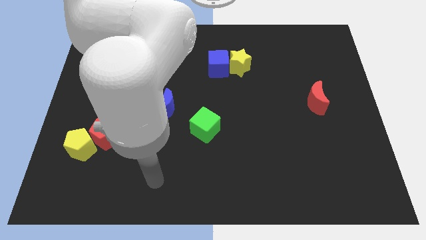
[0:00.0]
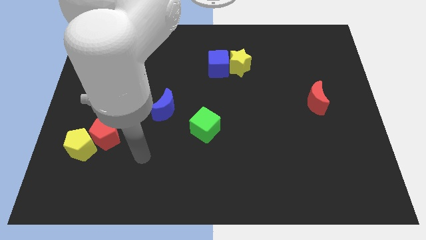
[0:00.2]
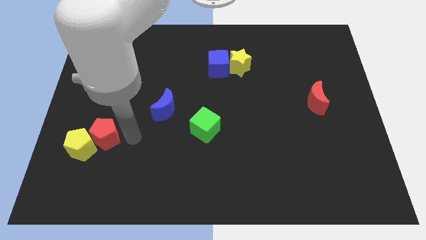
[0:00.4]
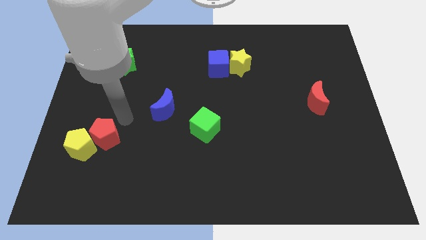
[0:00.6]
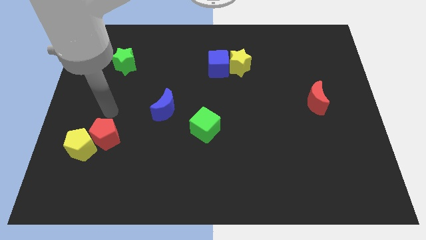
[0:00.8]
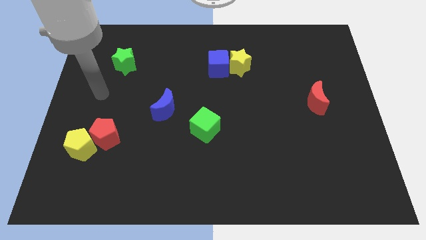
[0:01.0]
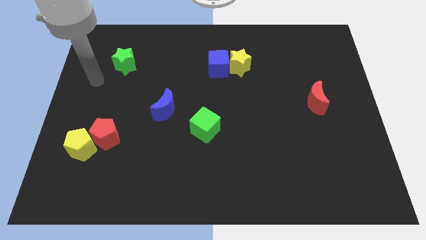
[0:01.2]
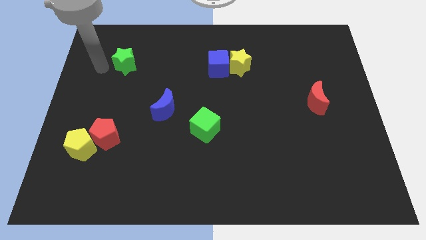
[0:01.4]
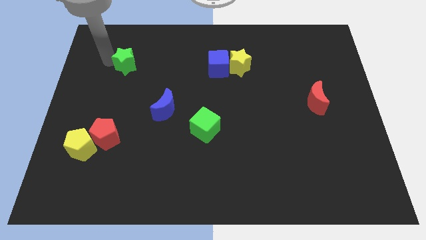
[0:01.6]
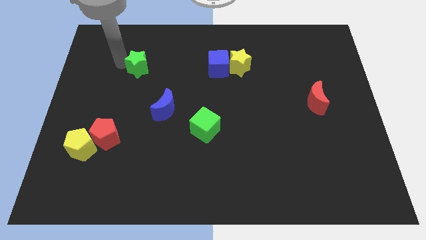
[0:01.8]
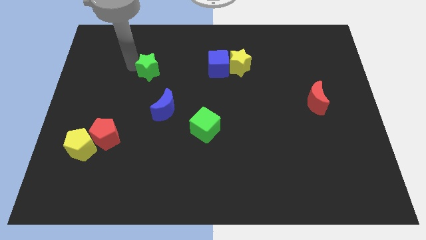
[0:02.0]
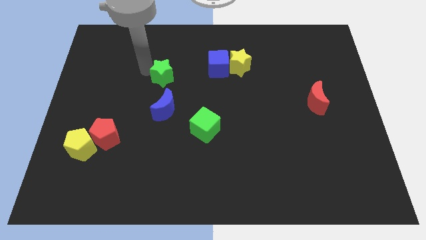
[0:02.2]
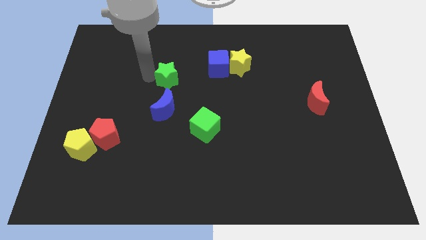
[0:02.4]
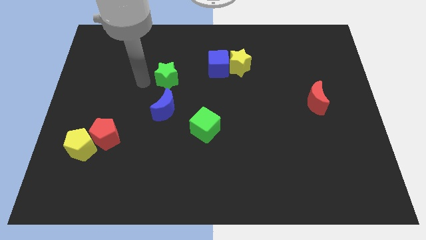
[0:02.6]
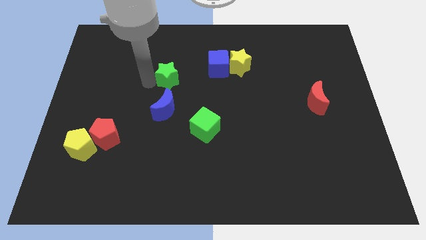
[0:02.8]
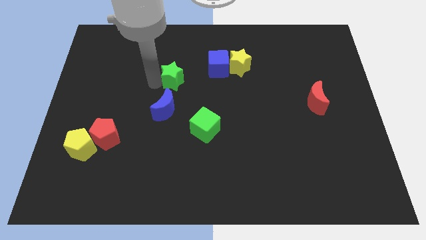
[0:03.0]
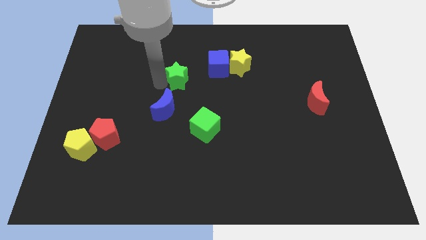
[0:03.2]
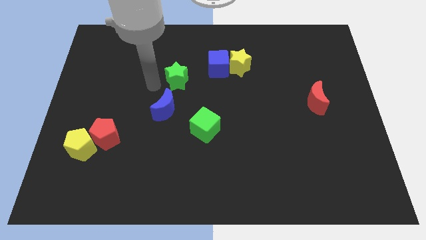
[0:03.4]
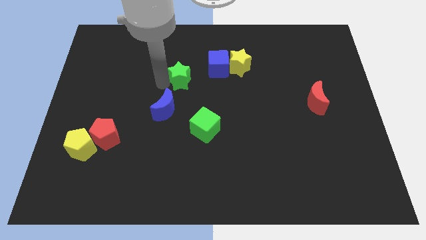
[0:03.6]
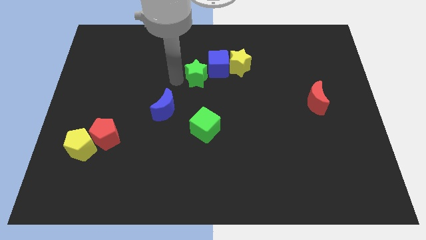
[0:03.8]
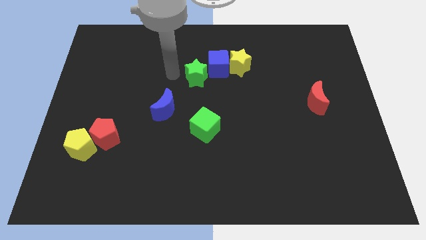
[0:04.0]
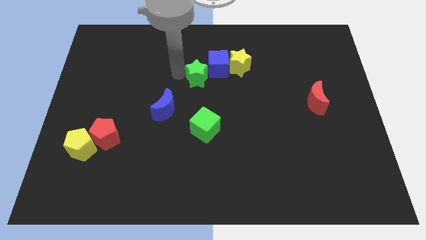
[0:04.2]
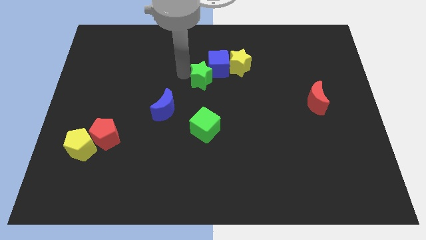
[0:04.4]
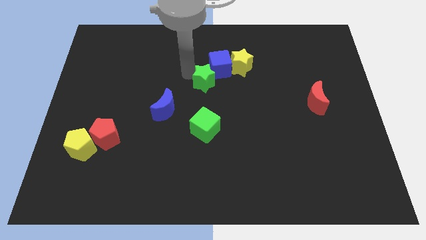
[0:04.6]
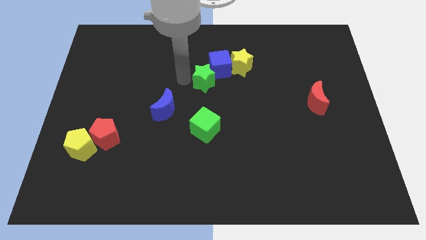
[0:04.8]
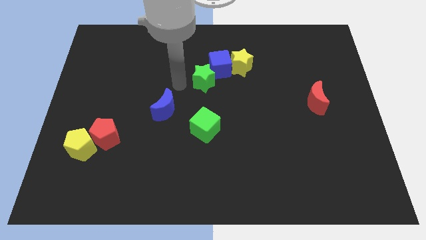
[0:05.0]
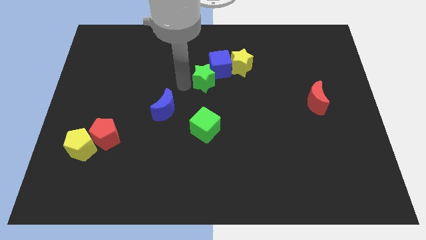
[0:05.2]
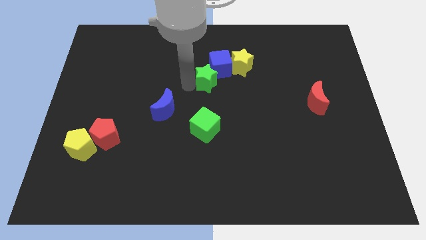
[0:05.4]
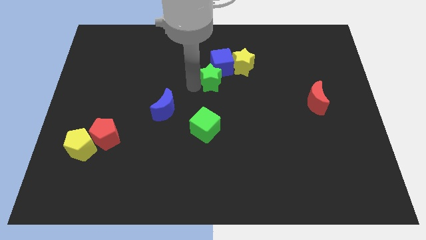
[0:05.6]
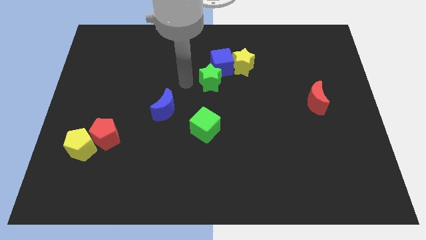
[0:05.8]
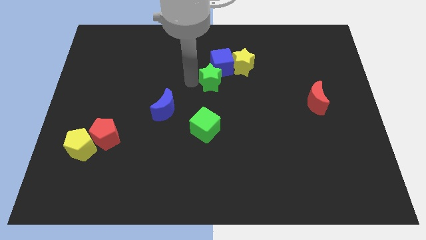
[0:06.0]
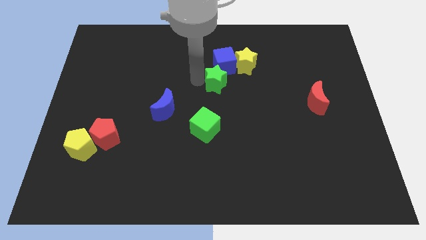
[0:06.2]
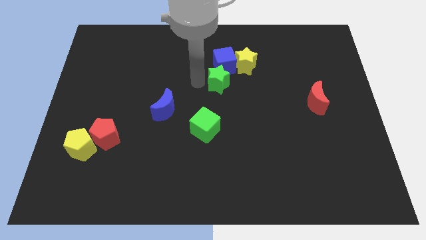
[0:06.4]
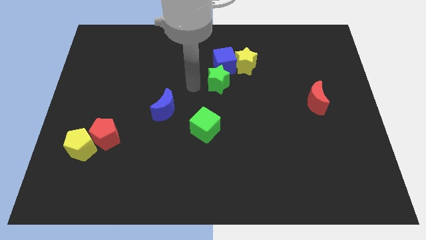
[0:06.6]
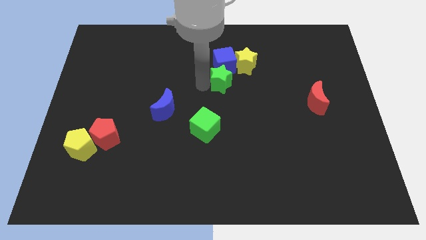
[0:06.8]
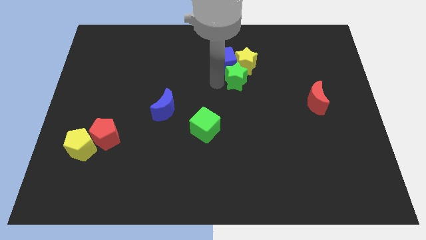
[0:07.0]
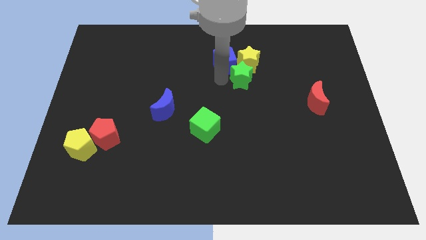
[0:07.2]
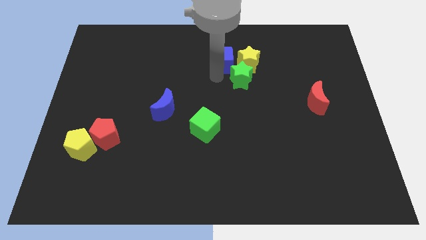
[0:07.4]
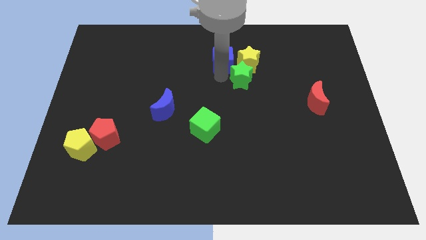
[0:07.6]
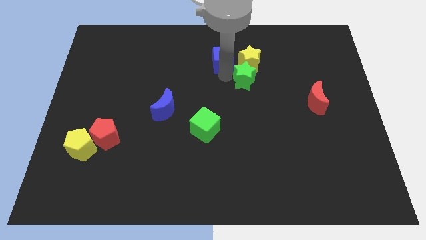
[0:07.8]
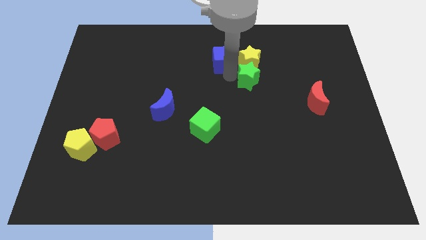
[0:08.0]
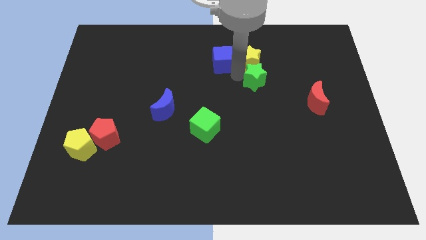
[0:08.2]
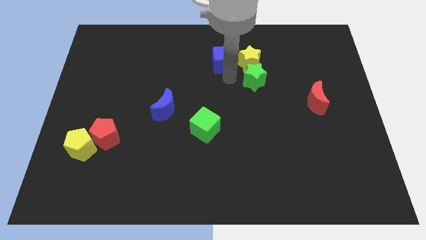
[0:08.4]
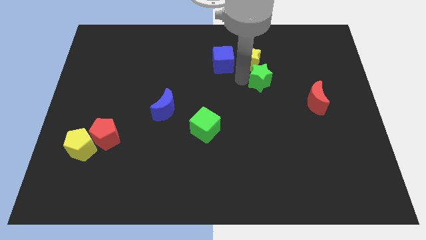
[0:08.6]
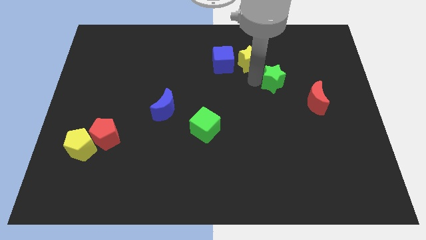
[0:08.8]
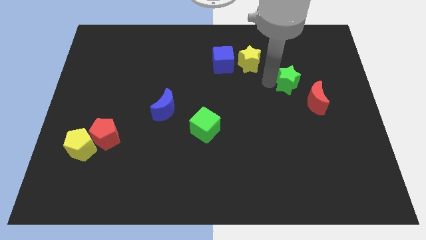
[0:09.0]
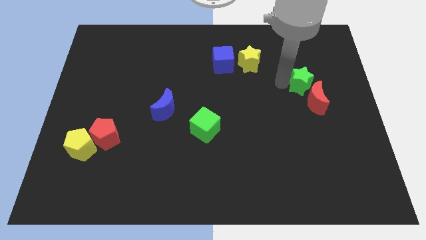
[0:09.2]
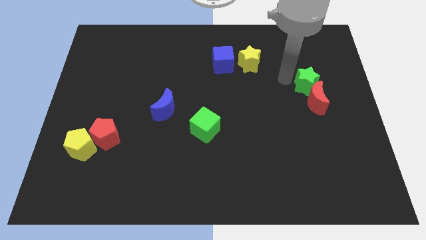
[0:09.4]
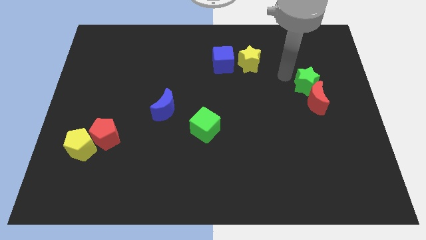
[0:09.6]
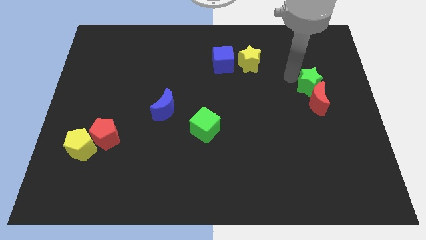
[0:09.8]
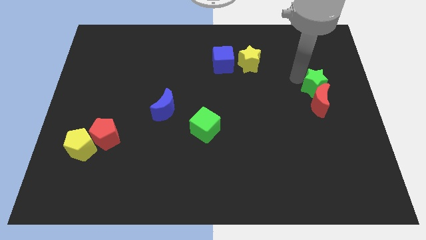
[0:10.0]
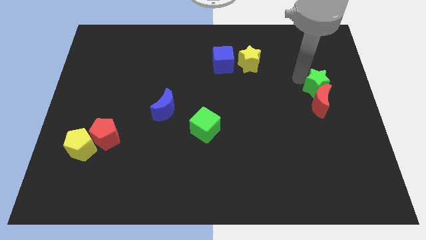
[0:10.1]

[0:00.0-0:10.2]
push the green star to the right side of the board

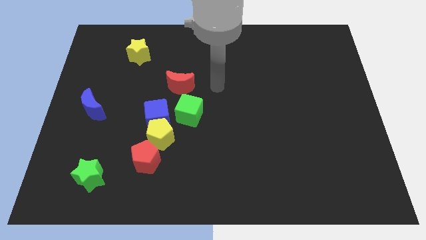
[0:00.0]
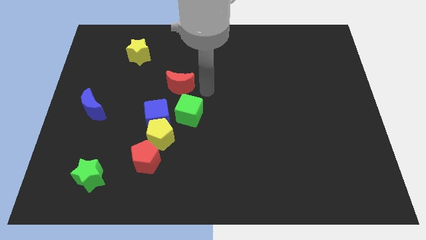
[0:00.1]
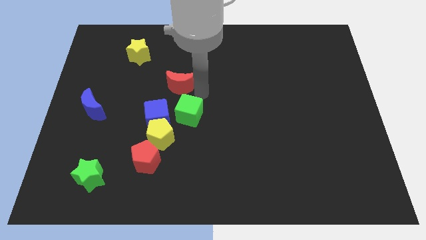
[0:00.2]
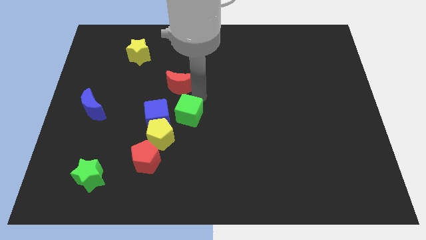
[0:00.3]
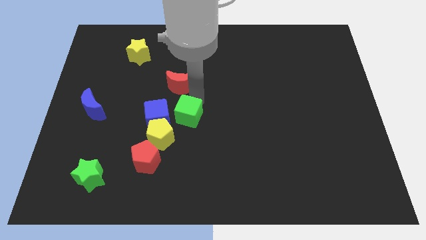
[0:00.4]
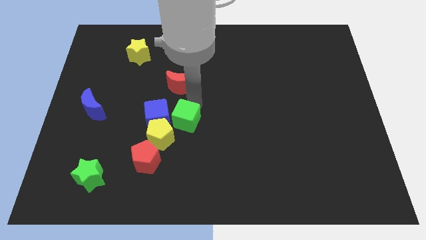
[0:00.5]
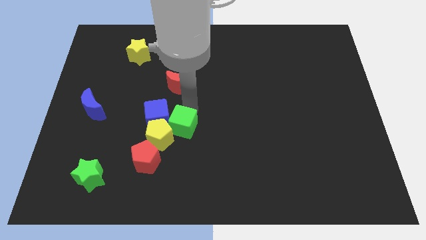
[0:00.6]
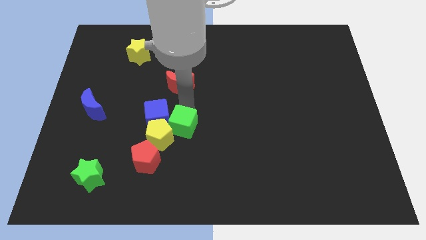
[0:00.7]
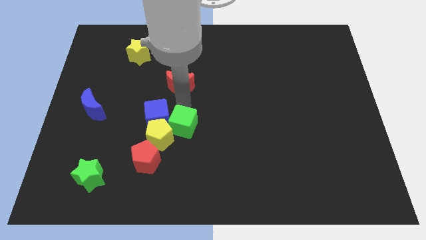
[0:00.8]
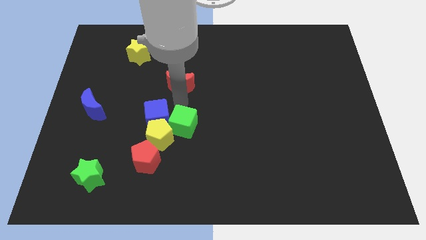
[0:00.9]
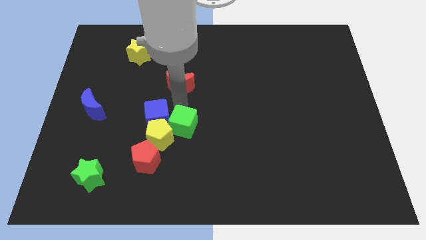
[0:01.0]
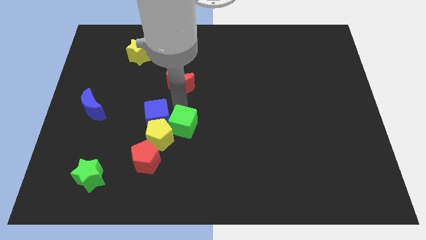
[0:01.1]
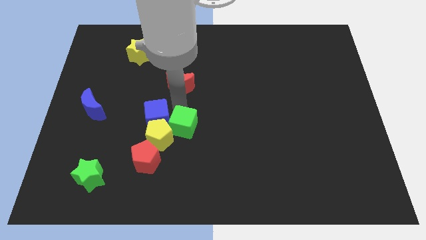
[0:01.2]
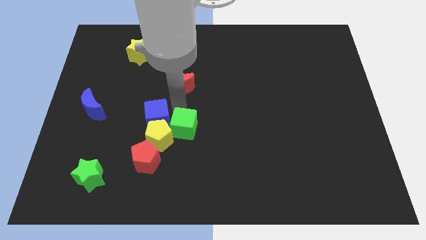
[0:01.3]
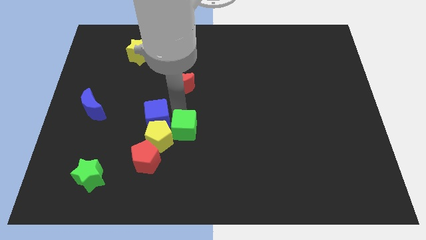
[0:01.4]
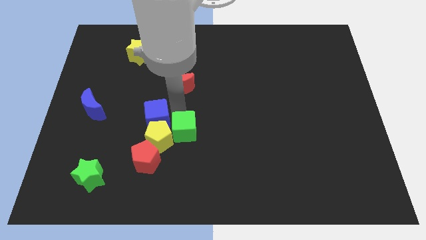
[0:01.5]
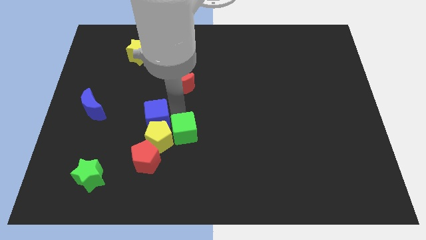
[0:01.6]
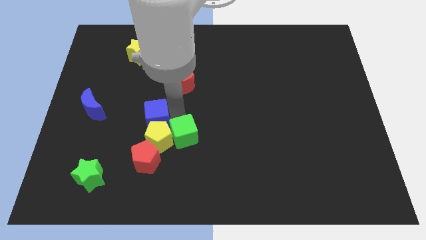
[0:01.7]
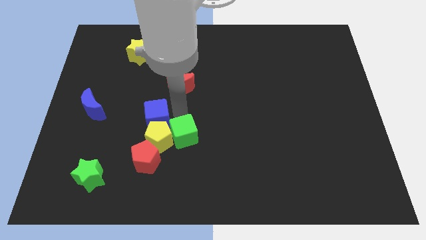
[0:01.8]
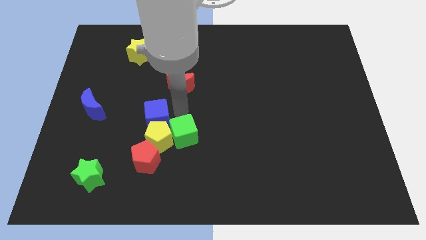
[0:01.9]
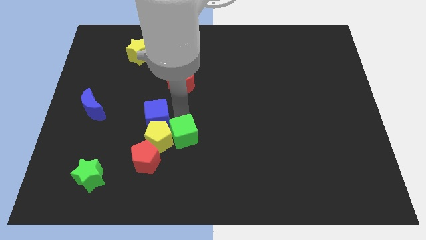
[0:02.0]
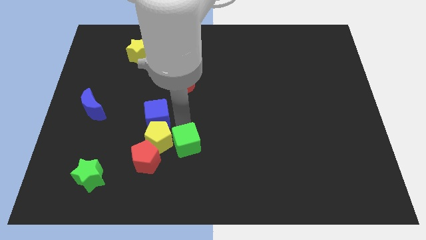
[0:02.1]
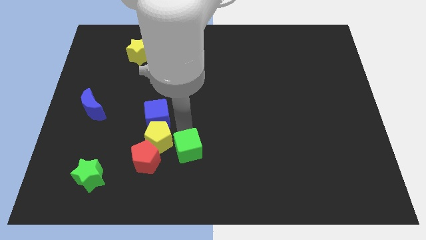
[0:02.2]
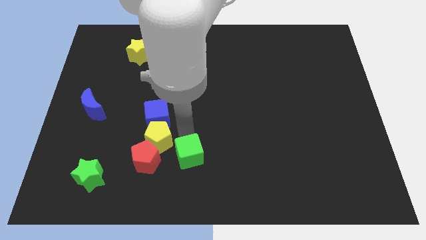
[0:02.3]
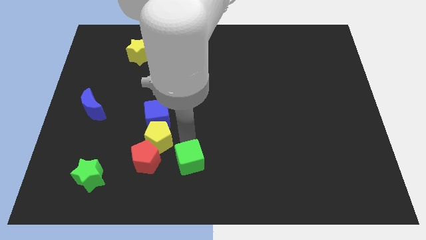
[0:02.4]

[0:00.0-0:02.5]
slide the green cube to the bottom side

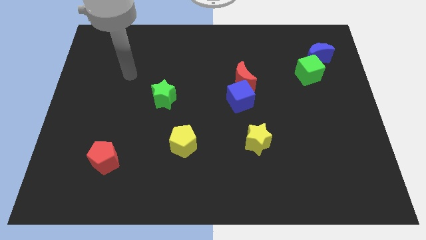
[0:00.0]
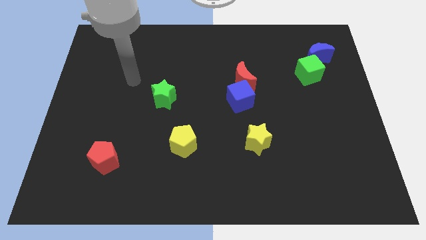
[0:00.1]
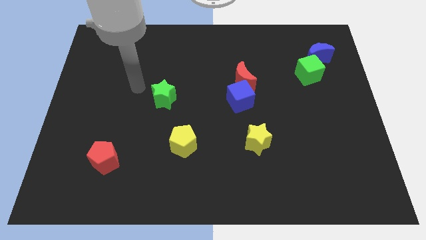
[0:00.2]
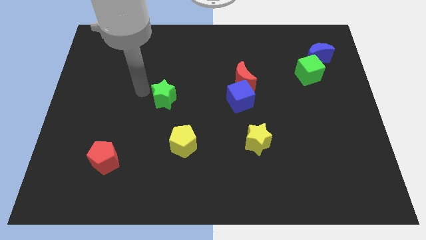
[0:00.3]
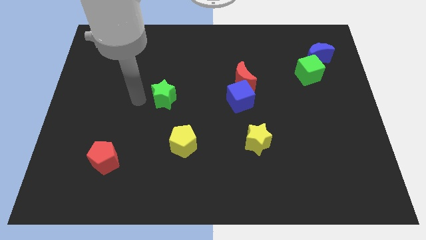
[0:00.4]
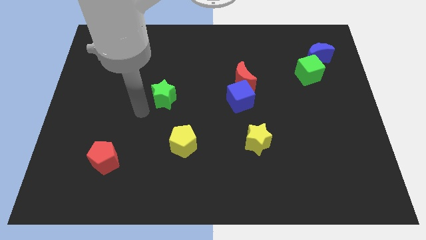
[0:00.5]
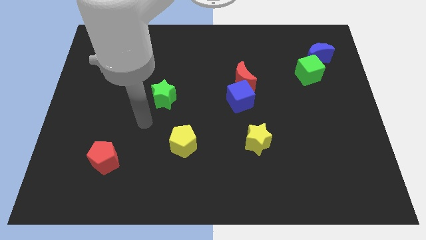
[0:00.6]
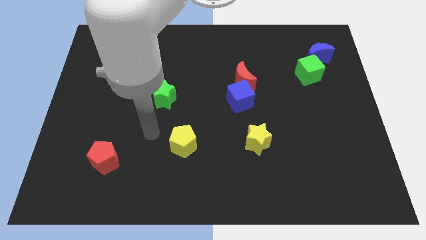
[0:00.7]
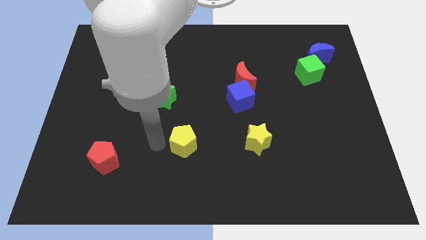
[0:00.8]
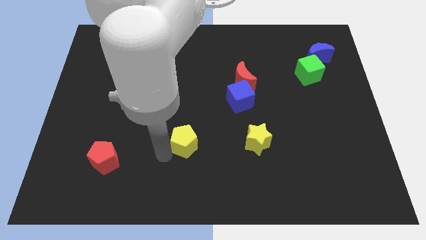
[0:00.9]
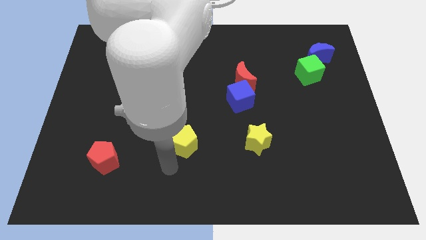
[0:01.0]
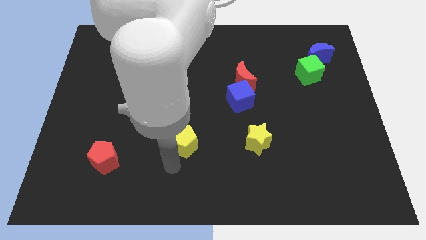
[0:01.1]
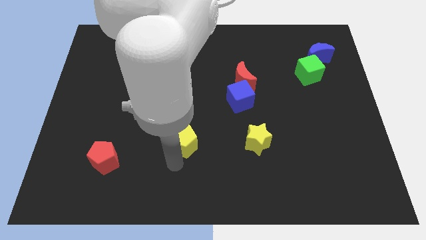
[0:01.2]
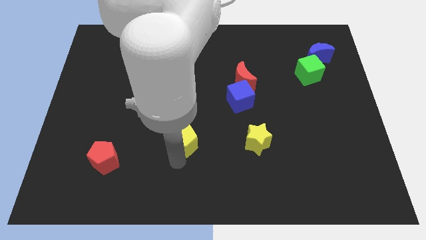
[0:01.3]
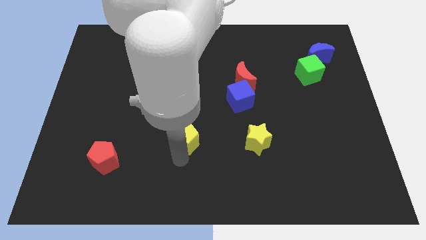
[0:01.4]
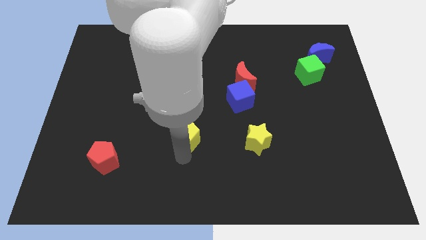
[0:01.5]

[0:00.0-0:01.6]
slide the yellow pentagon to the middle
